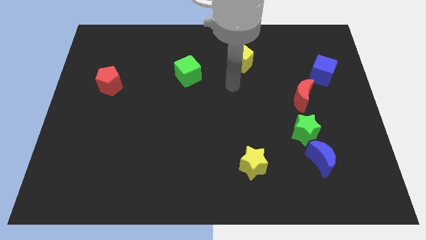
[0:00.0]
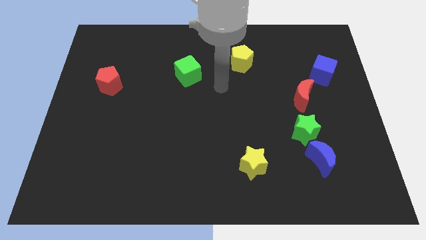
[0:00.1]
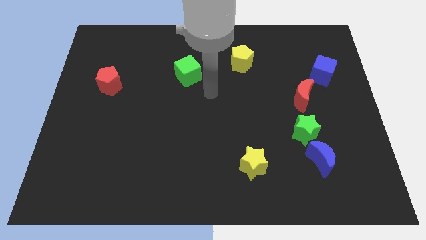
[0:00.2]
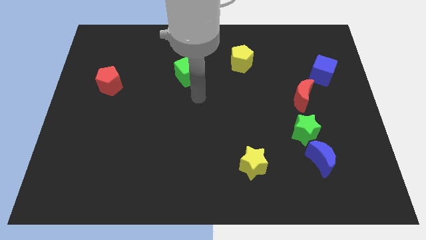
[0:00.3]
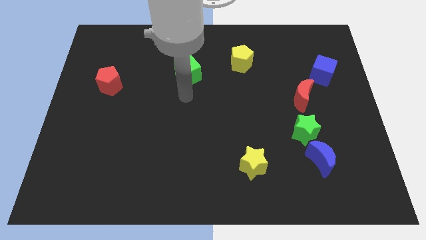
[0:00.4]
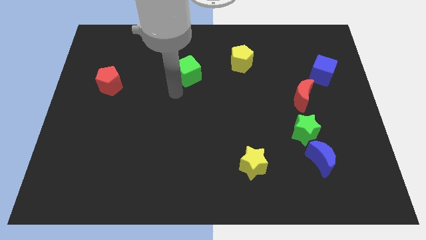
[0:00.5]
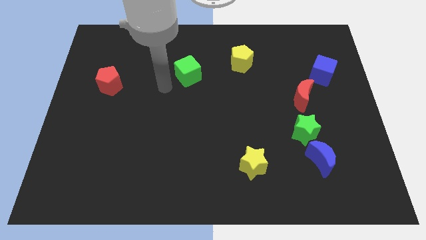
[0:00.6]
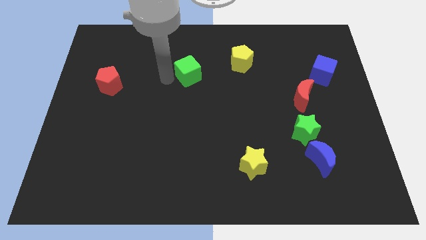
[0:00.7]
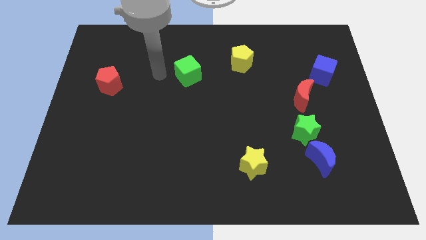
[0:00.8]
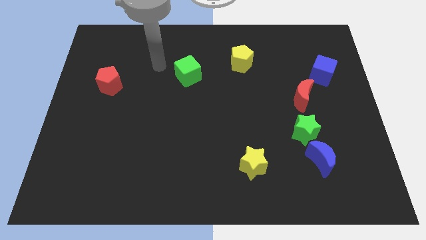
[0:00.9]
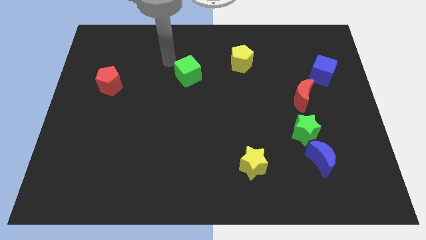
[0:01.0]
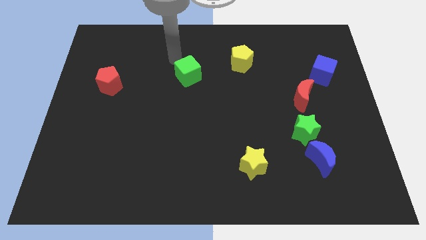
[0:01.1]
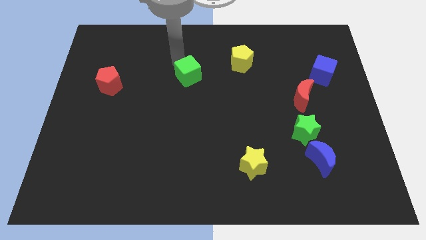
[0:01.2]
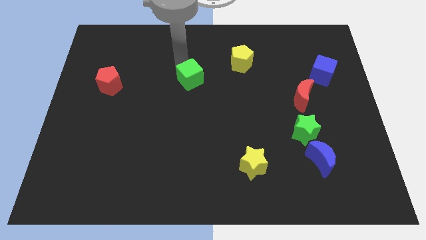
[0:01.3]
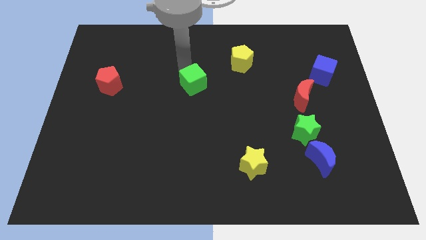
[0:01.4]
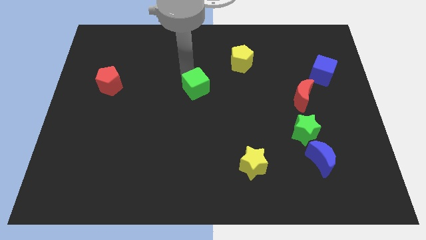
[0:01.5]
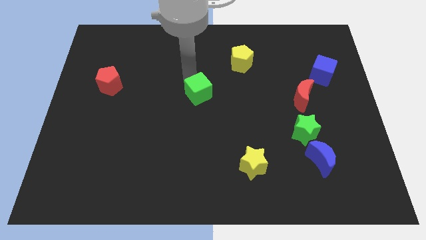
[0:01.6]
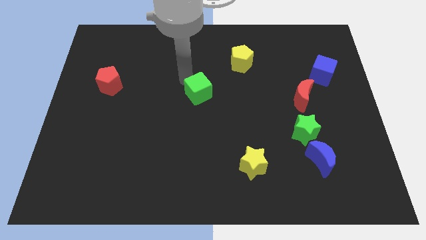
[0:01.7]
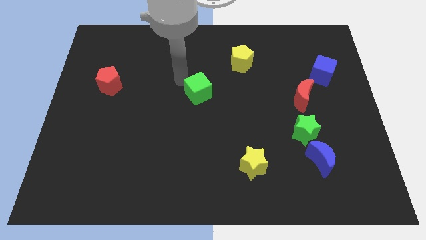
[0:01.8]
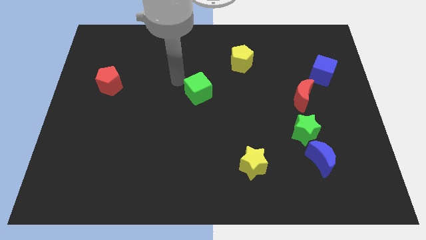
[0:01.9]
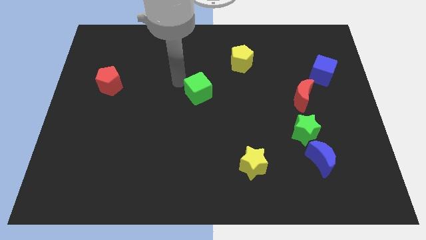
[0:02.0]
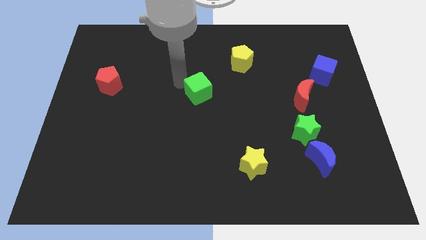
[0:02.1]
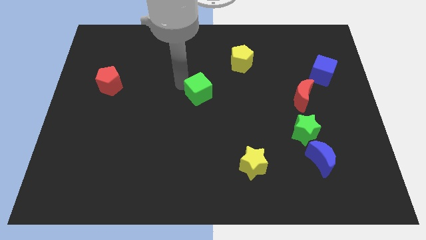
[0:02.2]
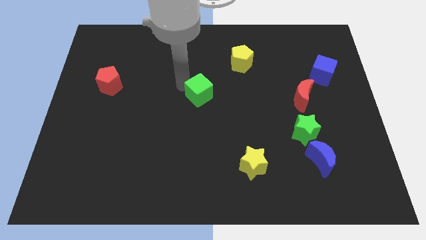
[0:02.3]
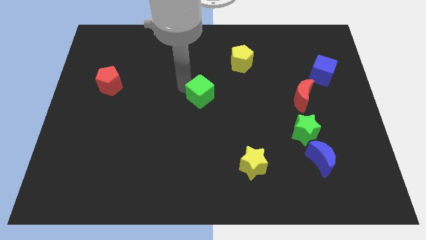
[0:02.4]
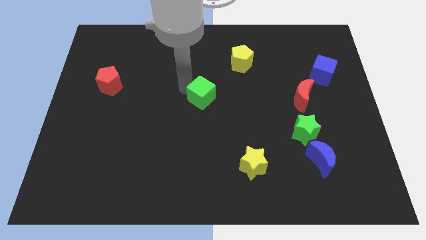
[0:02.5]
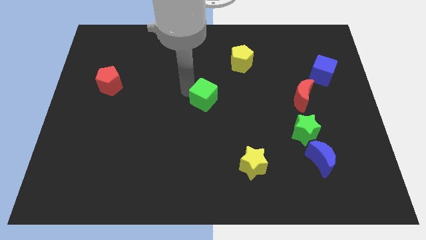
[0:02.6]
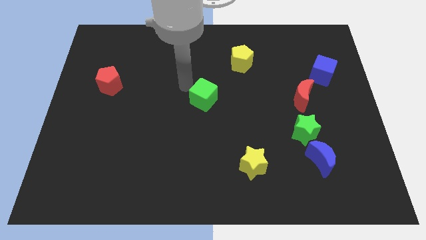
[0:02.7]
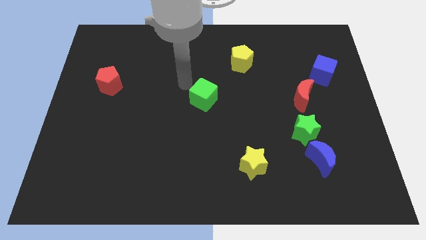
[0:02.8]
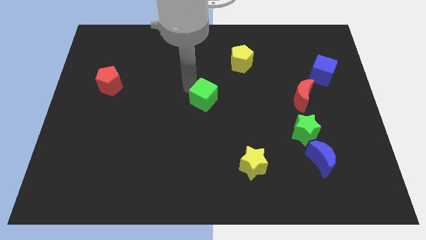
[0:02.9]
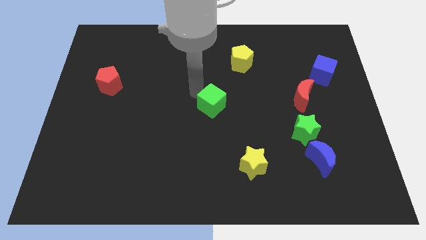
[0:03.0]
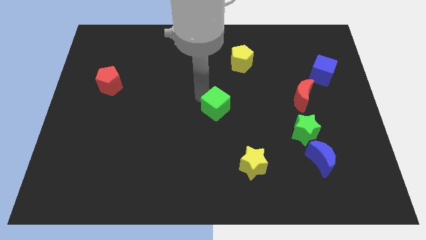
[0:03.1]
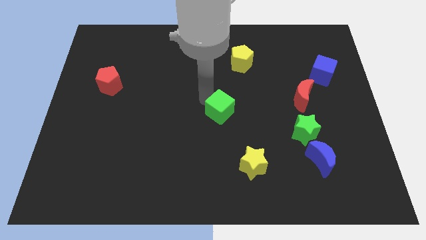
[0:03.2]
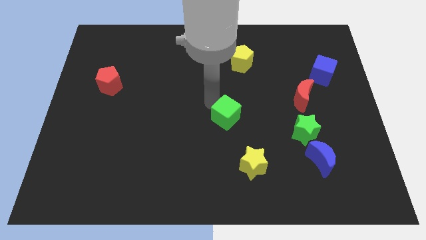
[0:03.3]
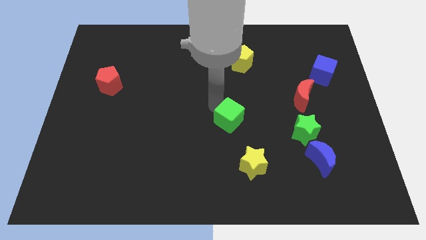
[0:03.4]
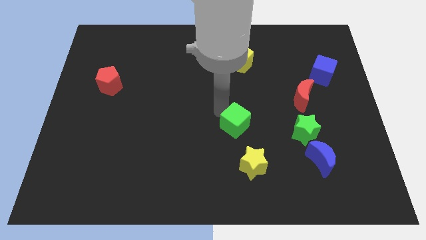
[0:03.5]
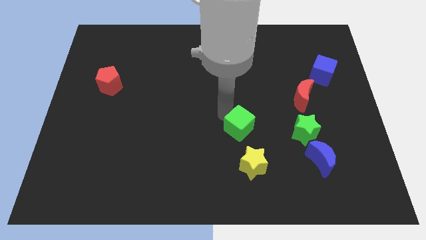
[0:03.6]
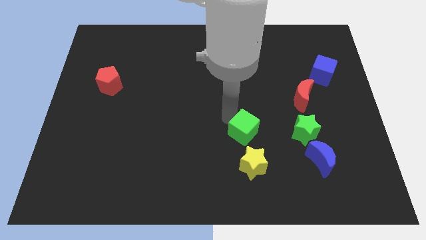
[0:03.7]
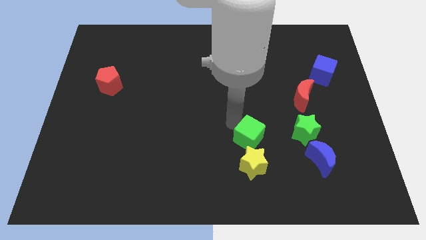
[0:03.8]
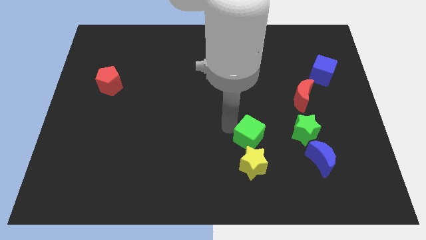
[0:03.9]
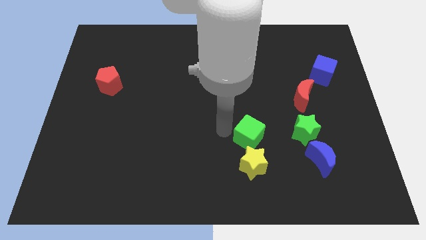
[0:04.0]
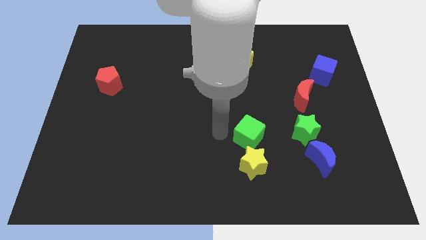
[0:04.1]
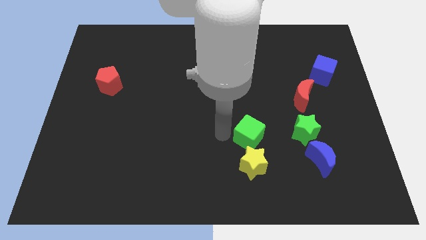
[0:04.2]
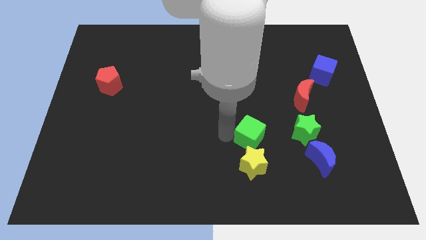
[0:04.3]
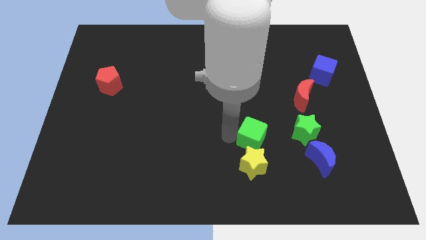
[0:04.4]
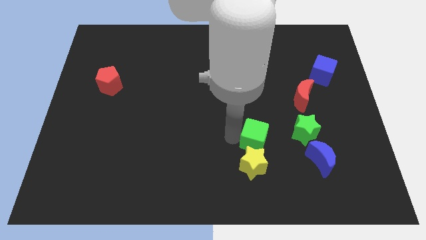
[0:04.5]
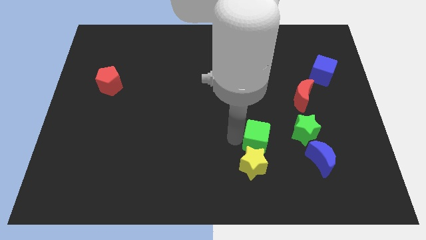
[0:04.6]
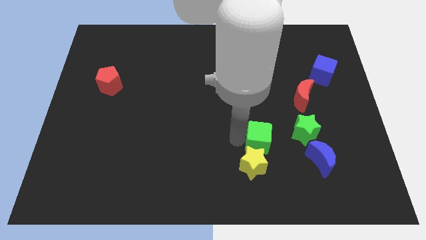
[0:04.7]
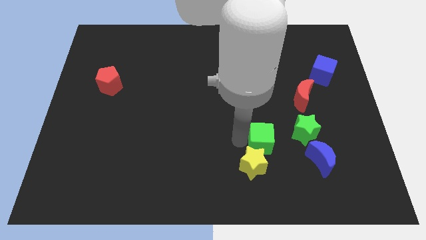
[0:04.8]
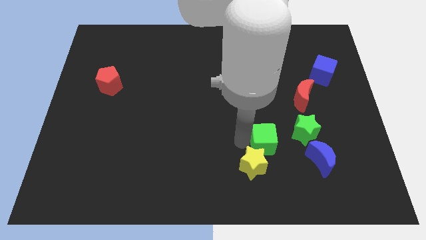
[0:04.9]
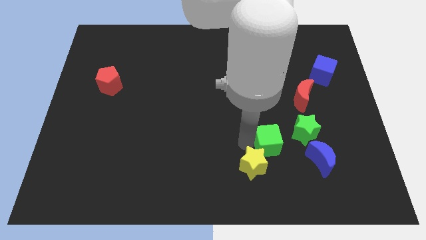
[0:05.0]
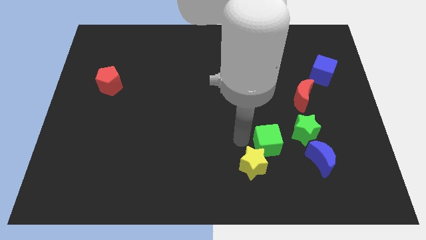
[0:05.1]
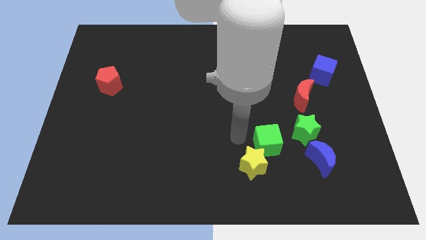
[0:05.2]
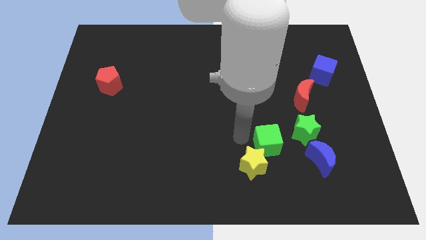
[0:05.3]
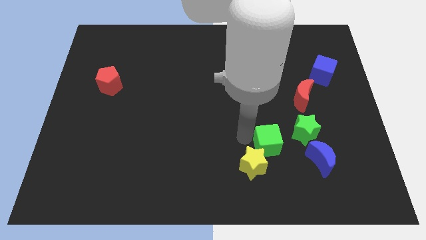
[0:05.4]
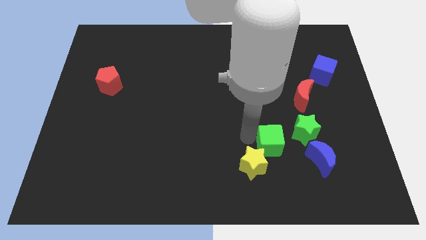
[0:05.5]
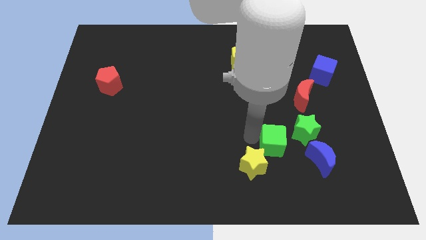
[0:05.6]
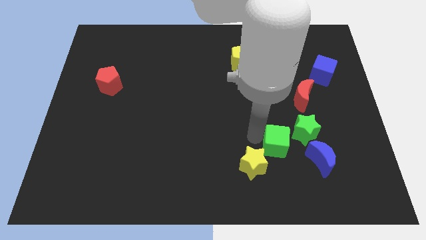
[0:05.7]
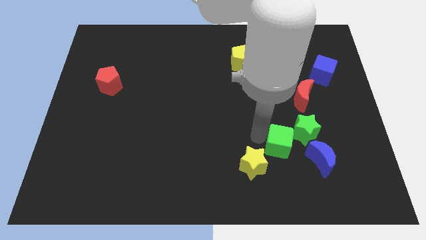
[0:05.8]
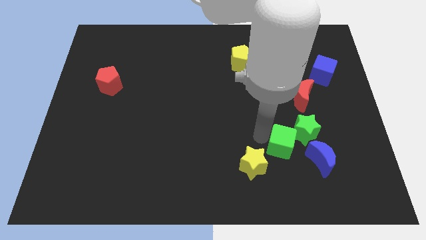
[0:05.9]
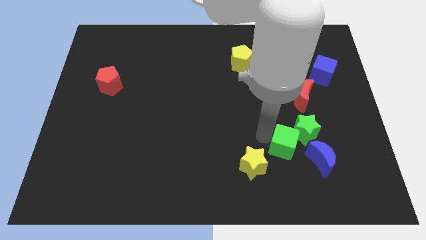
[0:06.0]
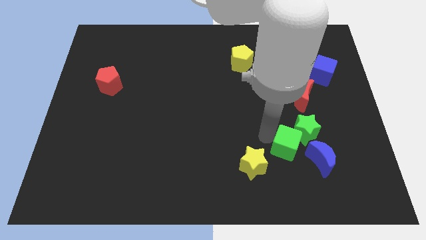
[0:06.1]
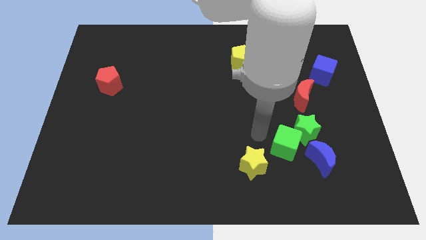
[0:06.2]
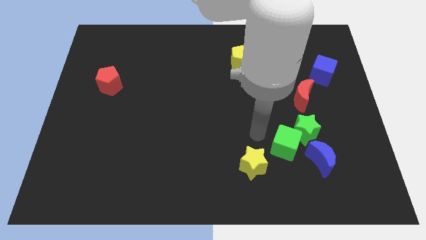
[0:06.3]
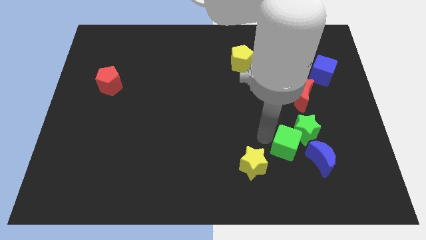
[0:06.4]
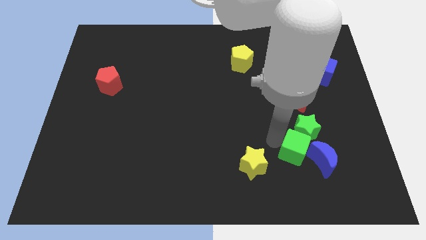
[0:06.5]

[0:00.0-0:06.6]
put the green cube to the blue moon
